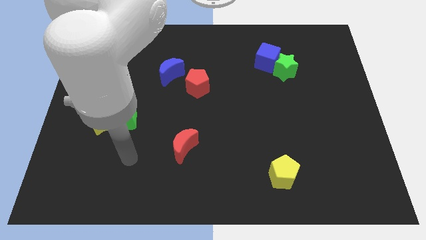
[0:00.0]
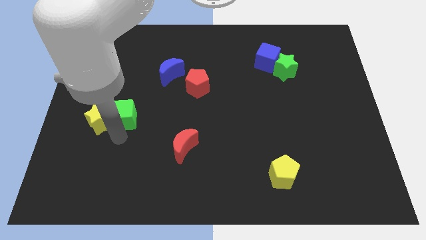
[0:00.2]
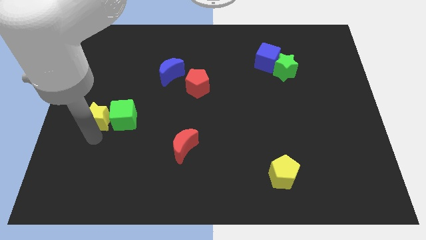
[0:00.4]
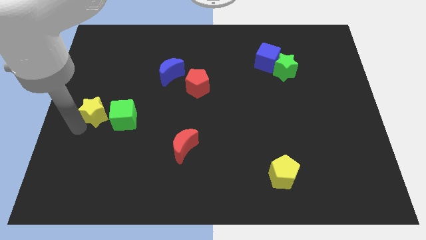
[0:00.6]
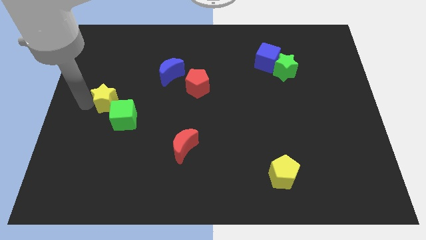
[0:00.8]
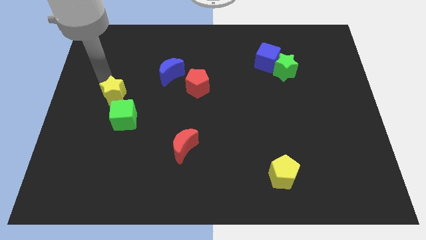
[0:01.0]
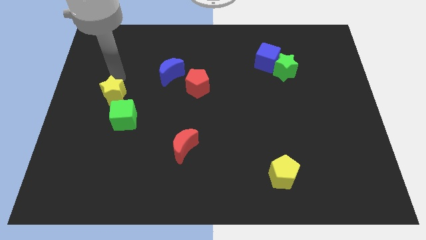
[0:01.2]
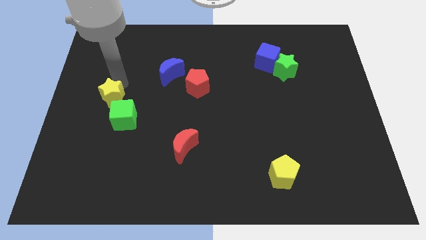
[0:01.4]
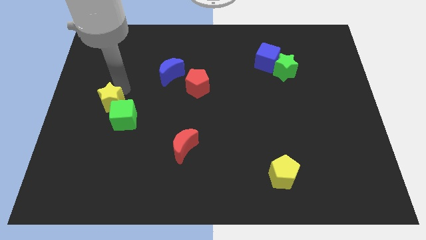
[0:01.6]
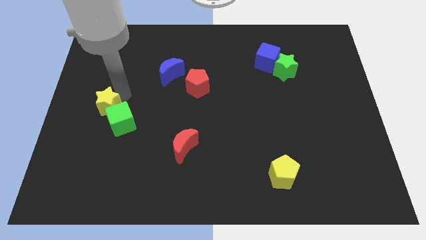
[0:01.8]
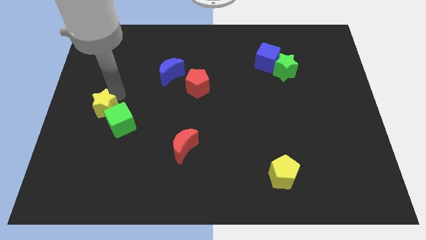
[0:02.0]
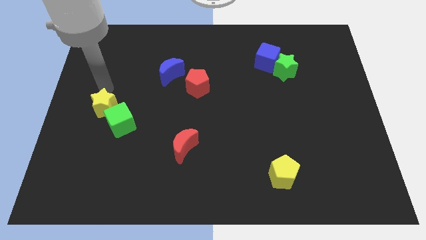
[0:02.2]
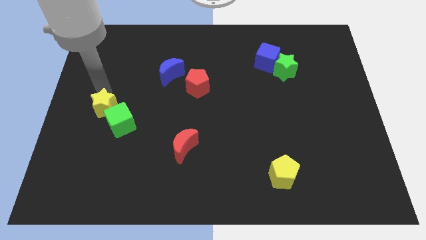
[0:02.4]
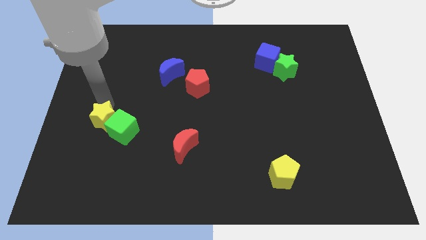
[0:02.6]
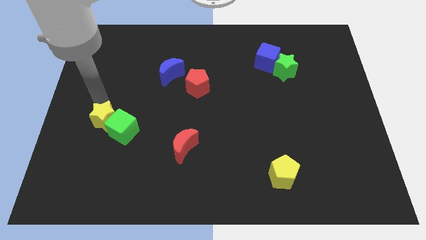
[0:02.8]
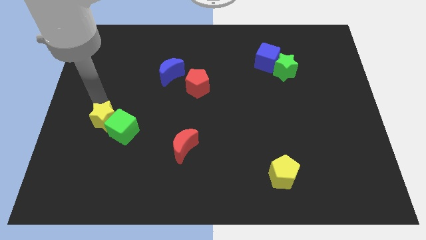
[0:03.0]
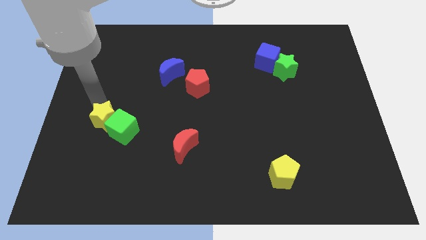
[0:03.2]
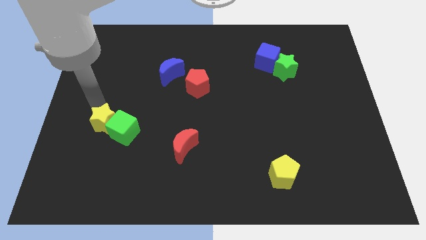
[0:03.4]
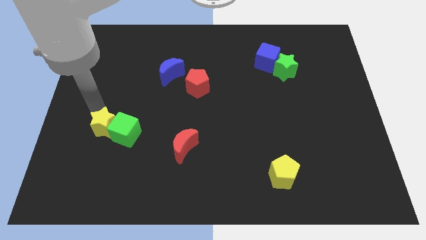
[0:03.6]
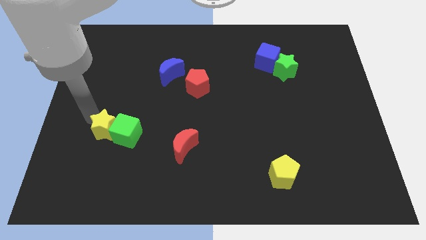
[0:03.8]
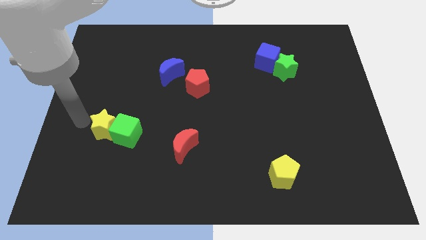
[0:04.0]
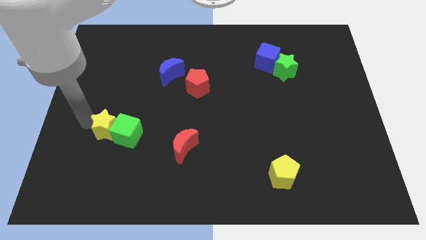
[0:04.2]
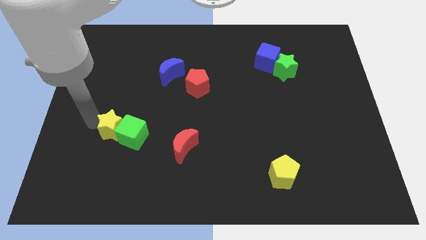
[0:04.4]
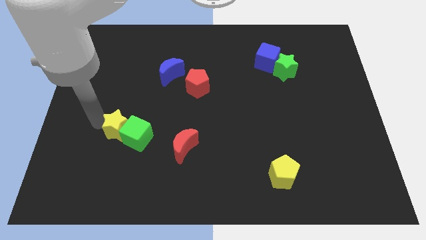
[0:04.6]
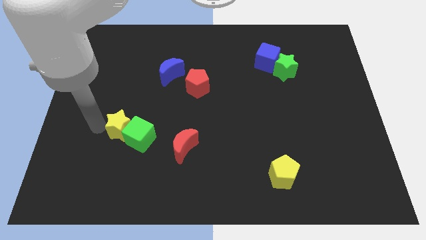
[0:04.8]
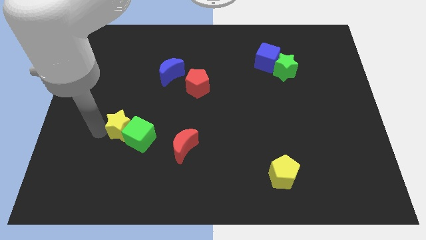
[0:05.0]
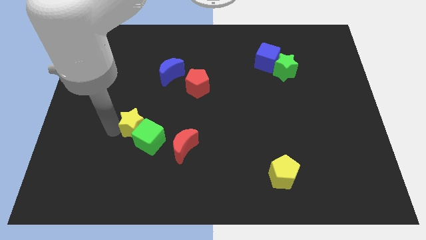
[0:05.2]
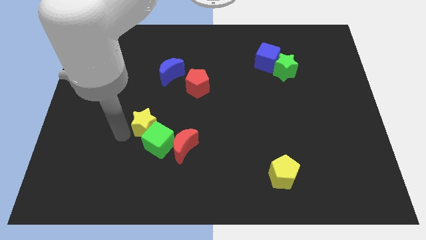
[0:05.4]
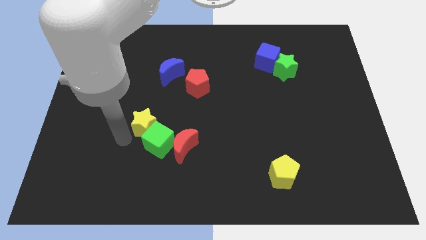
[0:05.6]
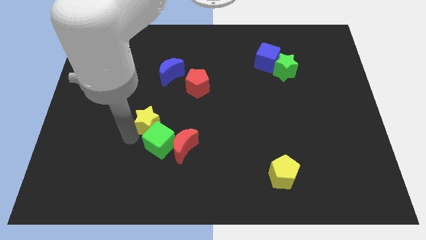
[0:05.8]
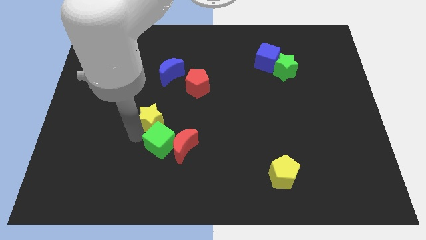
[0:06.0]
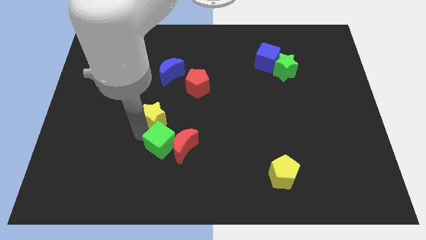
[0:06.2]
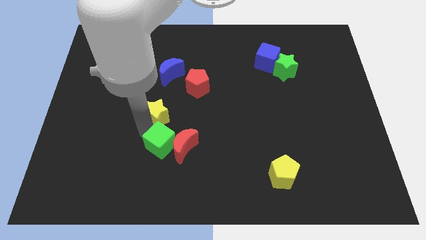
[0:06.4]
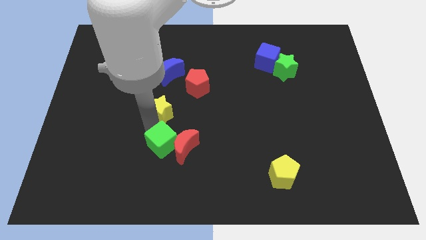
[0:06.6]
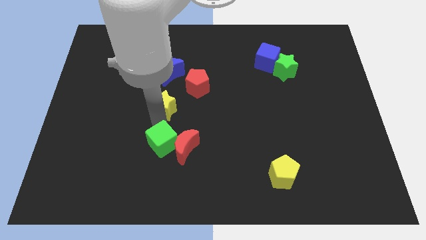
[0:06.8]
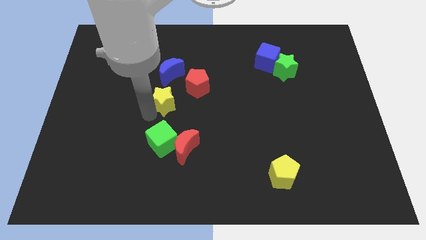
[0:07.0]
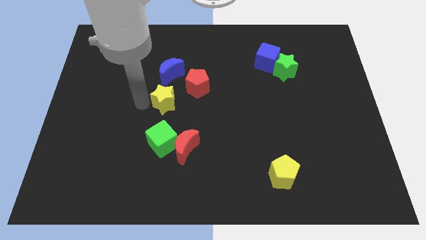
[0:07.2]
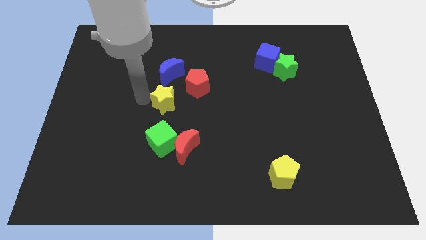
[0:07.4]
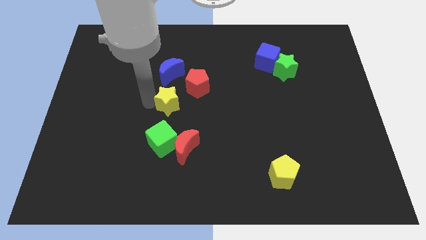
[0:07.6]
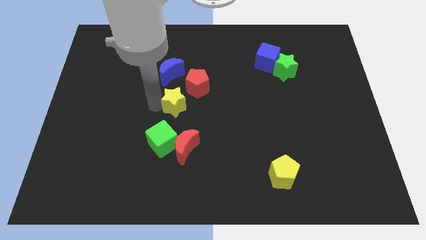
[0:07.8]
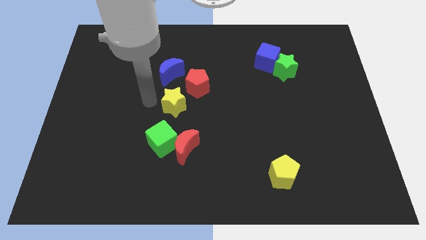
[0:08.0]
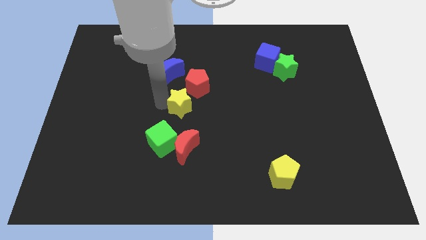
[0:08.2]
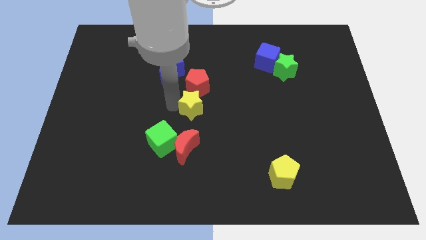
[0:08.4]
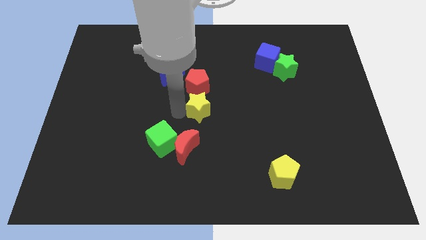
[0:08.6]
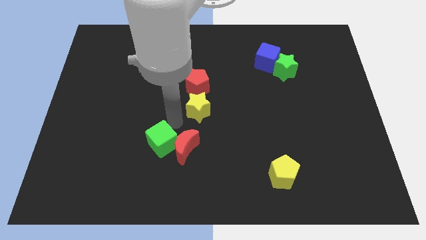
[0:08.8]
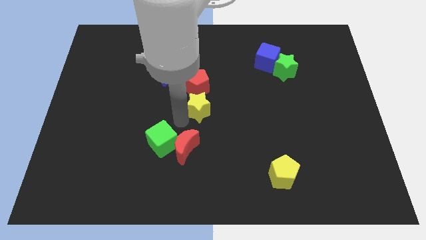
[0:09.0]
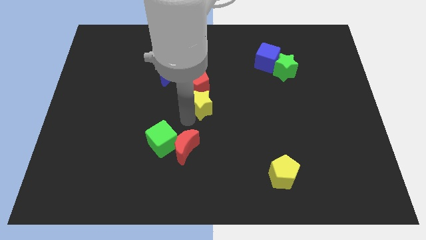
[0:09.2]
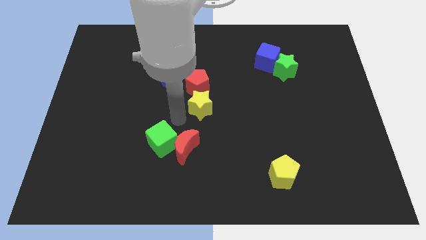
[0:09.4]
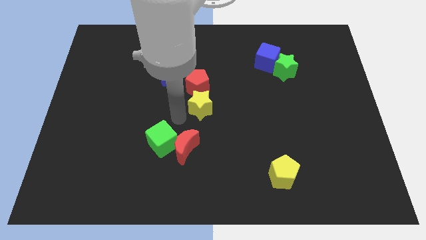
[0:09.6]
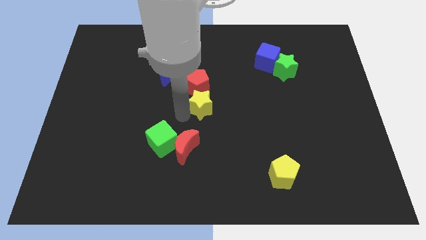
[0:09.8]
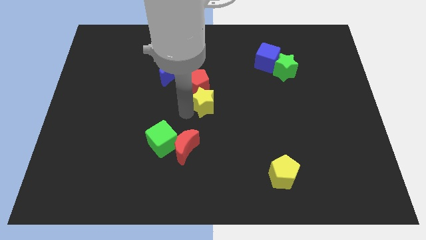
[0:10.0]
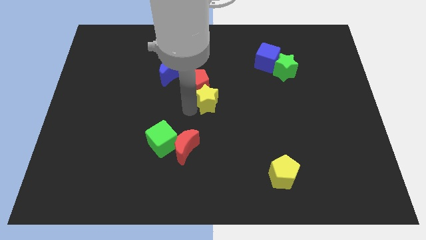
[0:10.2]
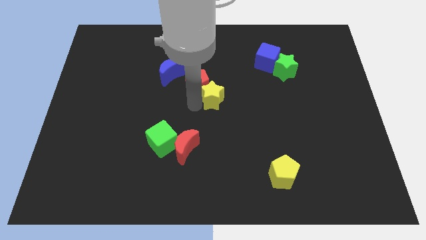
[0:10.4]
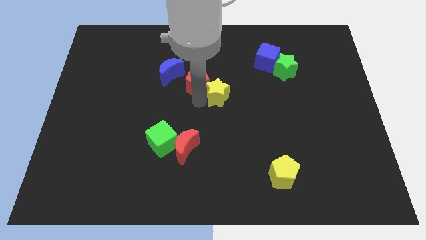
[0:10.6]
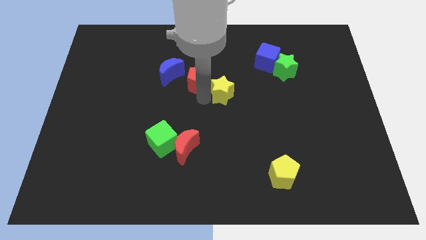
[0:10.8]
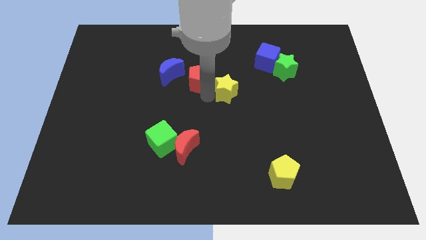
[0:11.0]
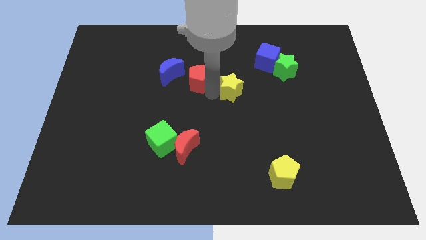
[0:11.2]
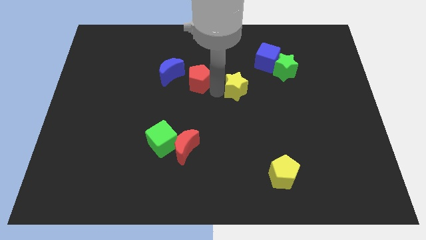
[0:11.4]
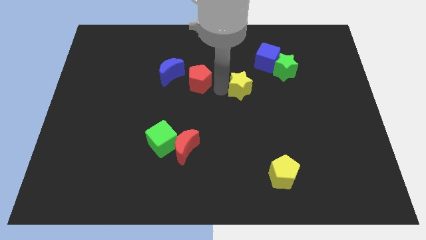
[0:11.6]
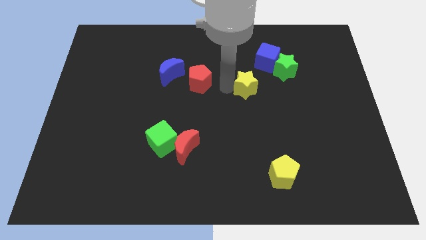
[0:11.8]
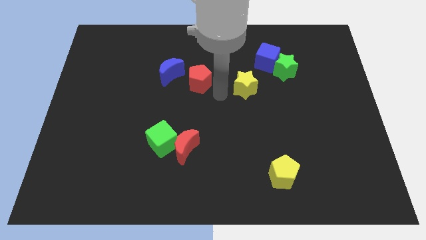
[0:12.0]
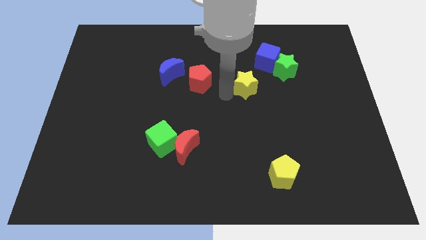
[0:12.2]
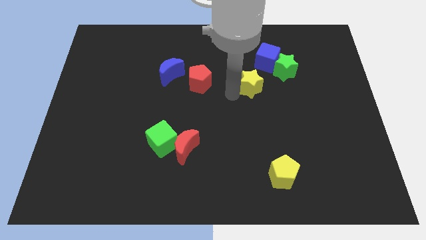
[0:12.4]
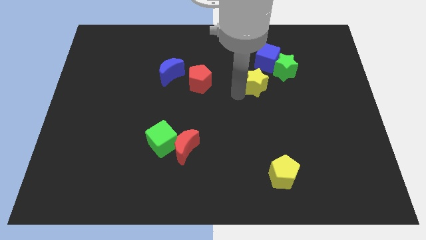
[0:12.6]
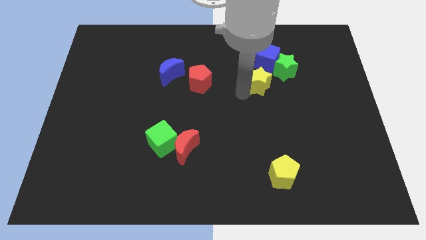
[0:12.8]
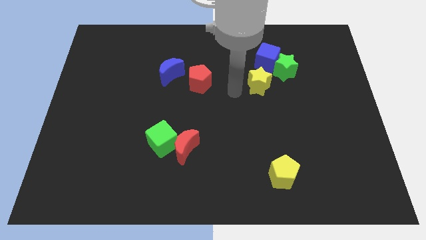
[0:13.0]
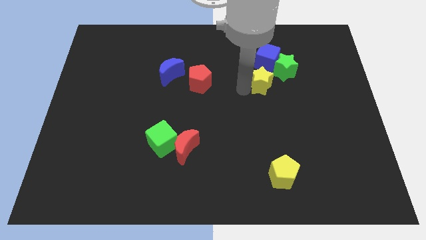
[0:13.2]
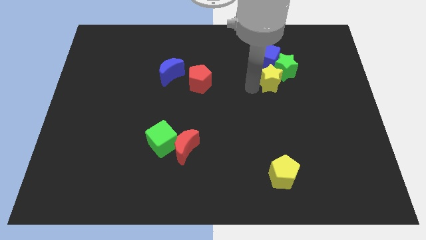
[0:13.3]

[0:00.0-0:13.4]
move the yellow star to the bottom right of the blue cube
